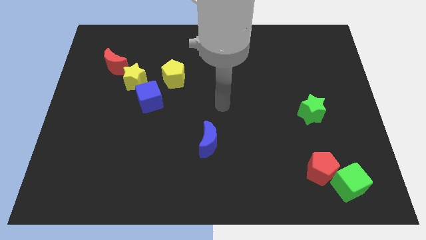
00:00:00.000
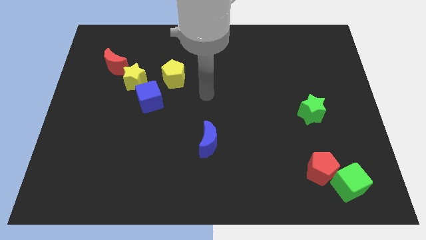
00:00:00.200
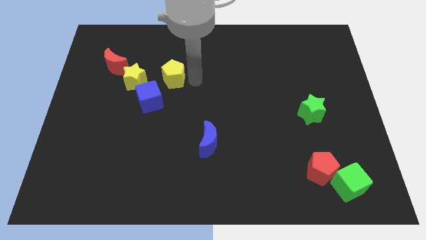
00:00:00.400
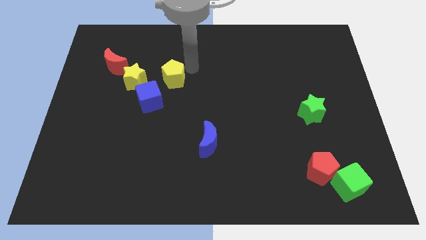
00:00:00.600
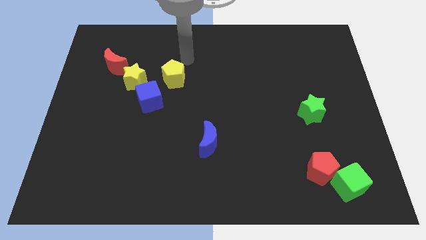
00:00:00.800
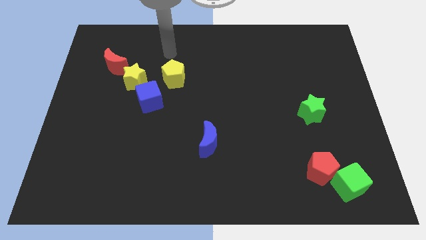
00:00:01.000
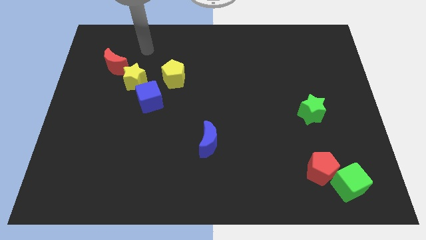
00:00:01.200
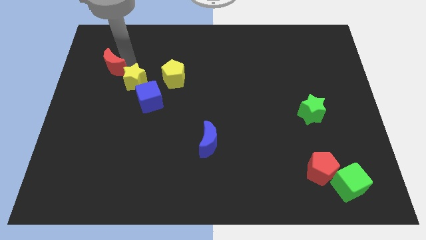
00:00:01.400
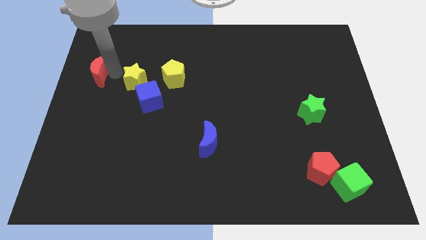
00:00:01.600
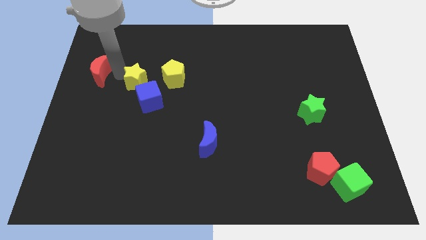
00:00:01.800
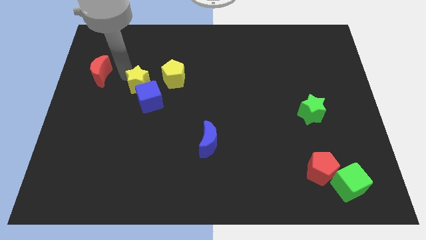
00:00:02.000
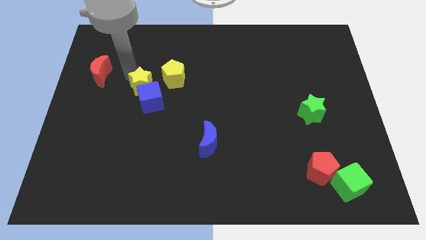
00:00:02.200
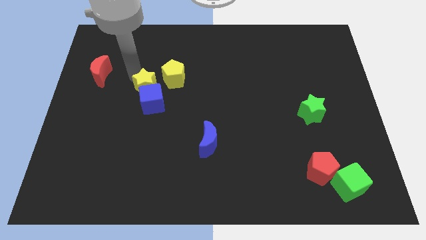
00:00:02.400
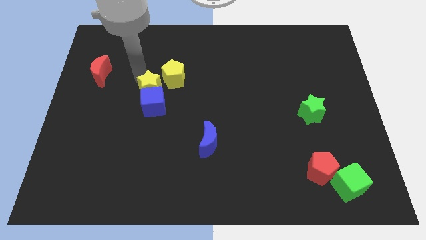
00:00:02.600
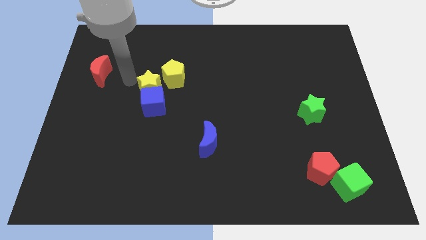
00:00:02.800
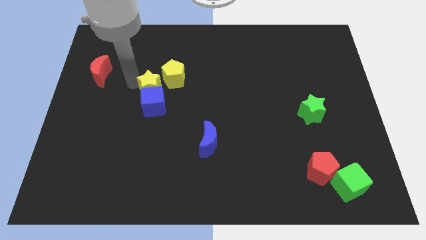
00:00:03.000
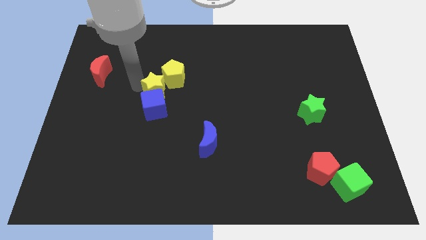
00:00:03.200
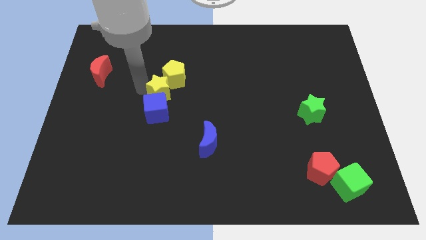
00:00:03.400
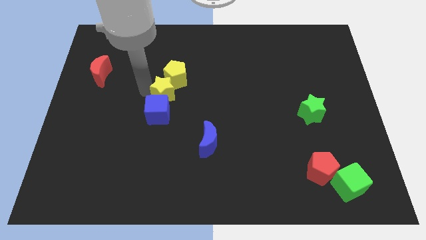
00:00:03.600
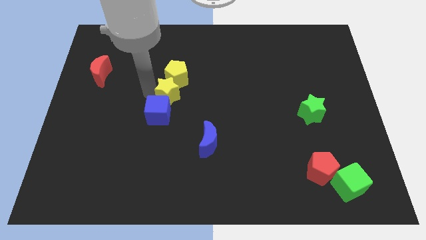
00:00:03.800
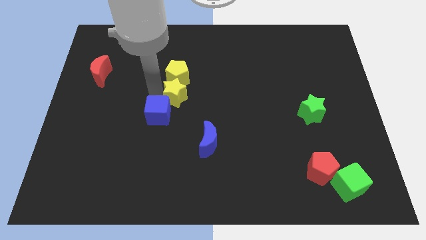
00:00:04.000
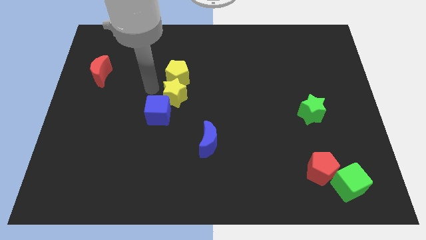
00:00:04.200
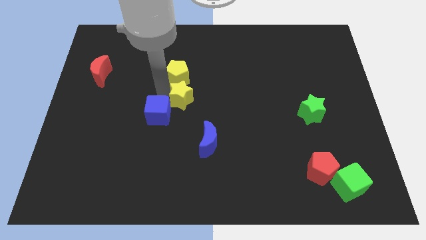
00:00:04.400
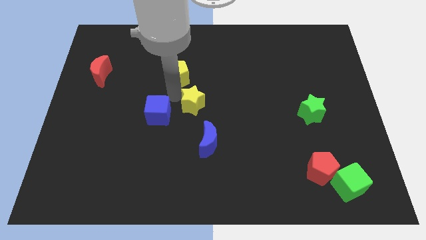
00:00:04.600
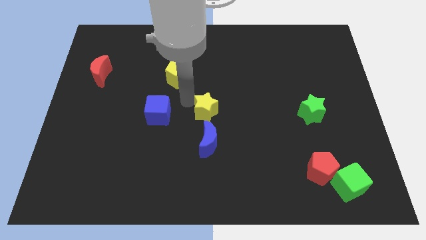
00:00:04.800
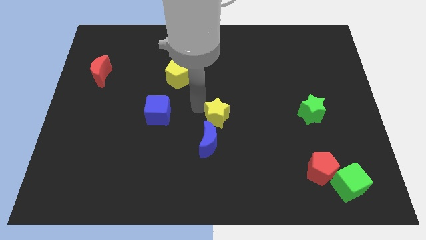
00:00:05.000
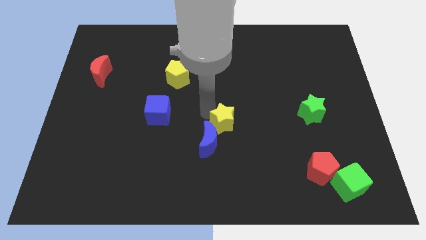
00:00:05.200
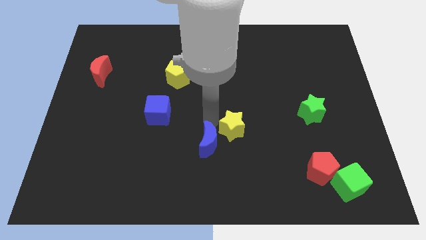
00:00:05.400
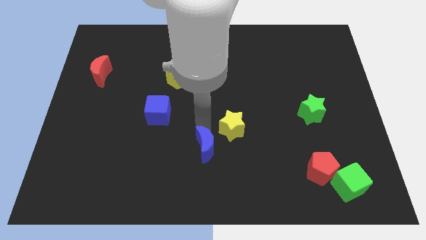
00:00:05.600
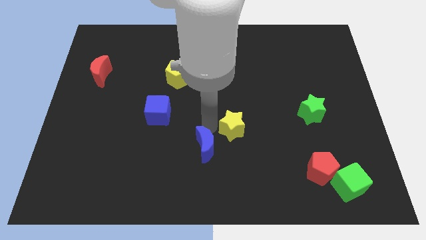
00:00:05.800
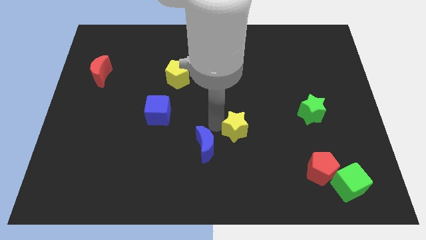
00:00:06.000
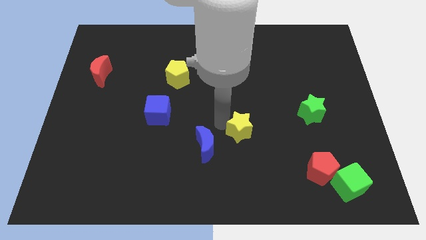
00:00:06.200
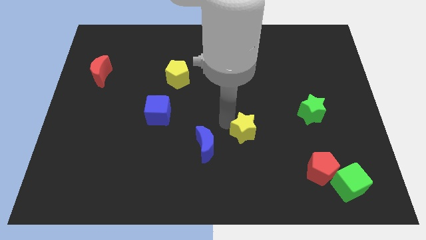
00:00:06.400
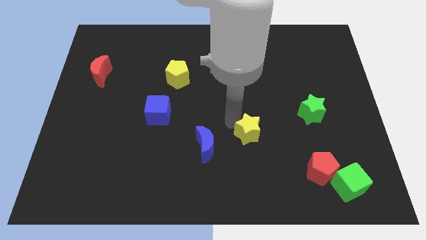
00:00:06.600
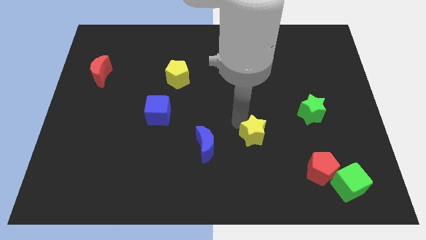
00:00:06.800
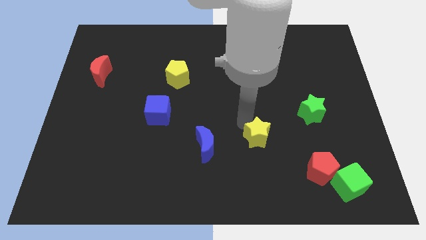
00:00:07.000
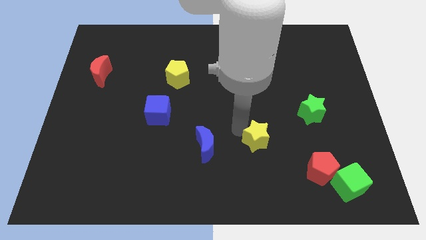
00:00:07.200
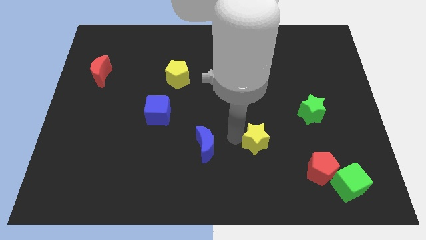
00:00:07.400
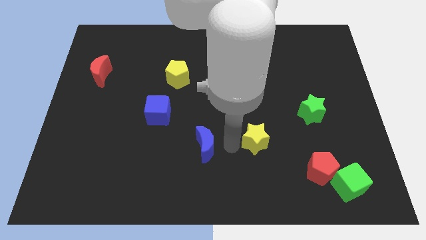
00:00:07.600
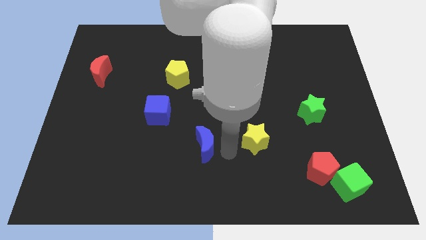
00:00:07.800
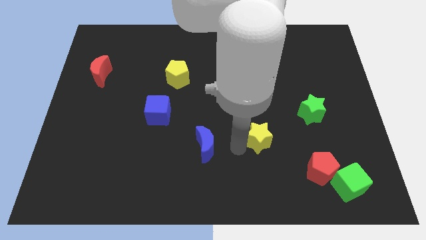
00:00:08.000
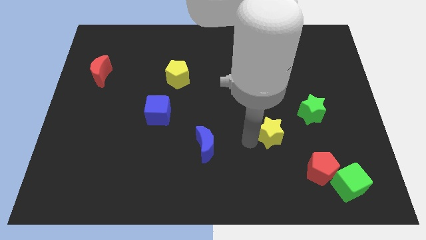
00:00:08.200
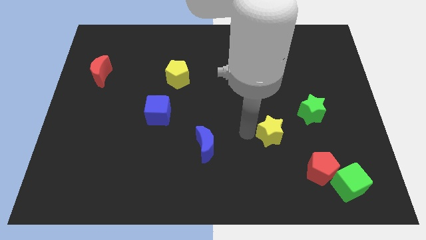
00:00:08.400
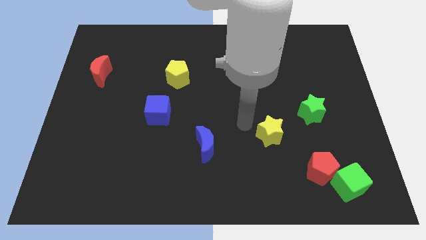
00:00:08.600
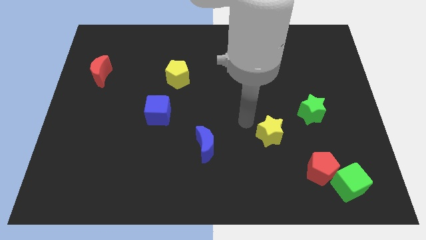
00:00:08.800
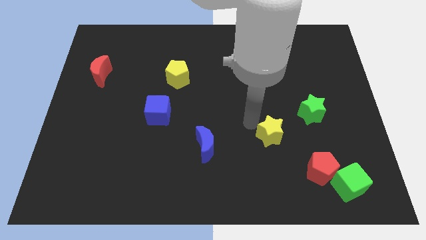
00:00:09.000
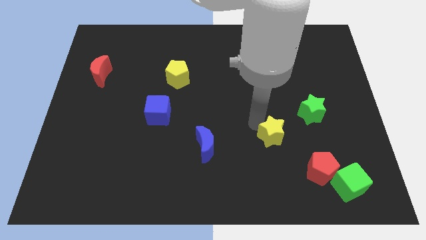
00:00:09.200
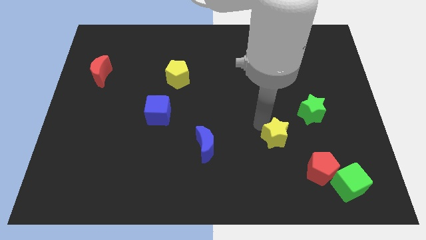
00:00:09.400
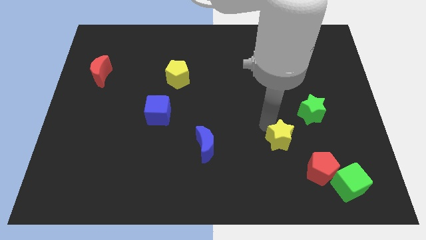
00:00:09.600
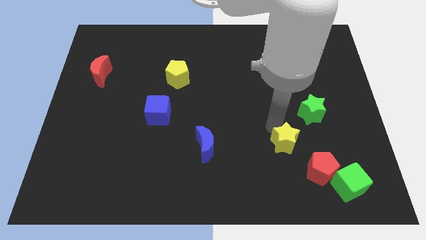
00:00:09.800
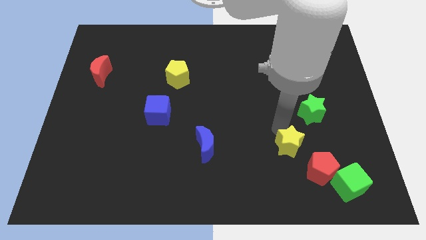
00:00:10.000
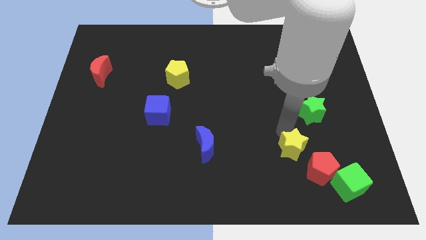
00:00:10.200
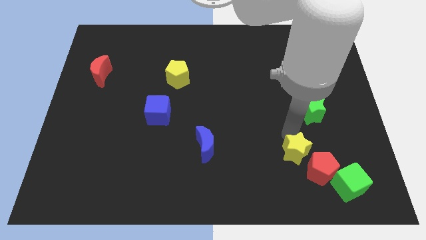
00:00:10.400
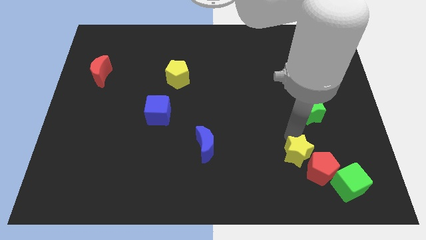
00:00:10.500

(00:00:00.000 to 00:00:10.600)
move the yellow star to the red pentagon

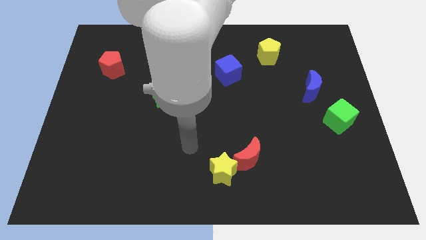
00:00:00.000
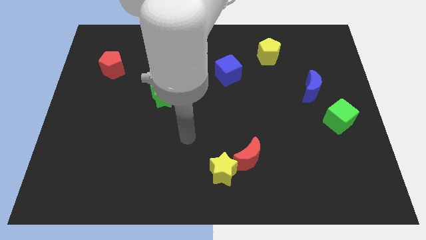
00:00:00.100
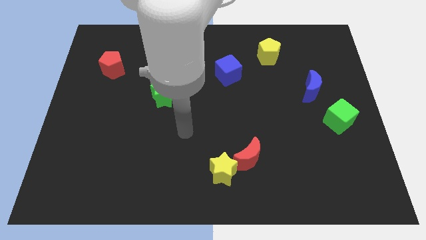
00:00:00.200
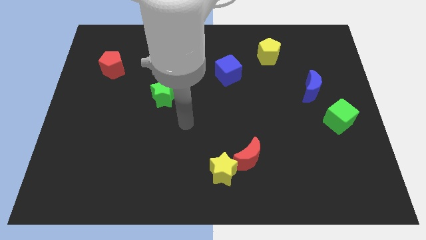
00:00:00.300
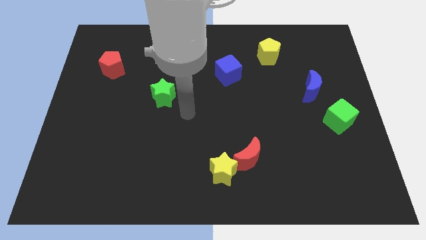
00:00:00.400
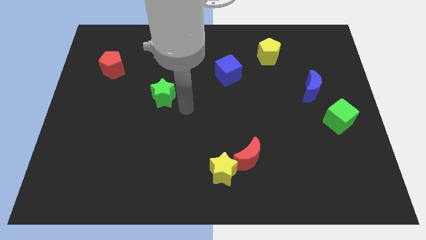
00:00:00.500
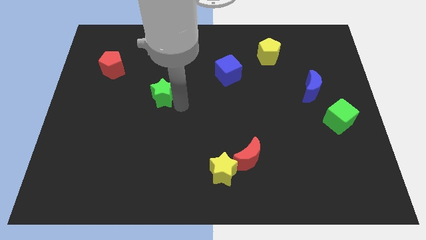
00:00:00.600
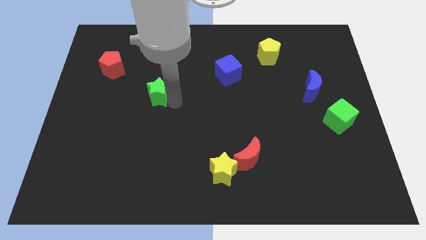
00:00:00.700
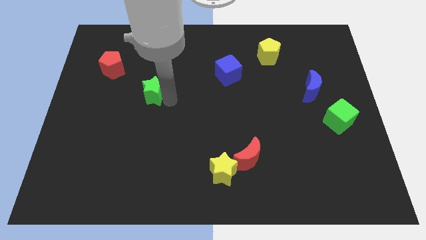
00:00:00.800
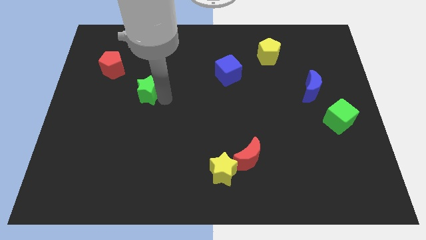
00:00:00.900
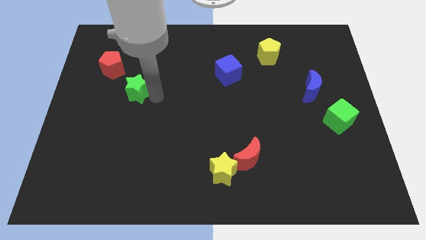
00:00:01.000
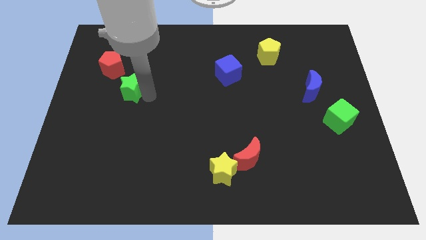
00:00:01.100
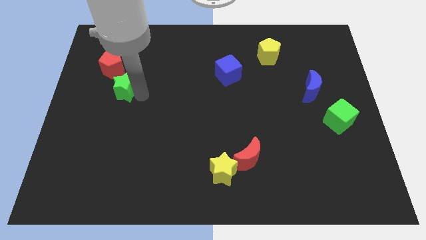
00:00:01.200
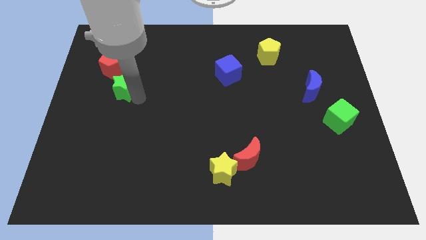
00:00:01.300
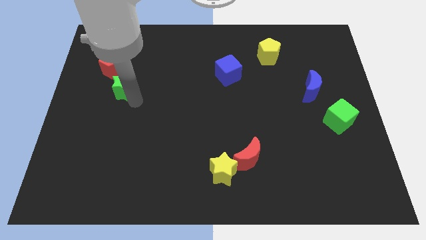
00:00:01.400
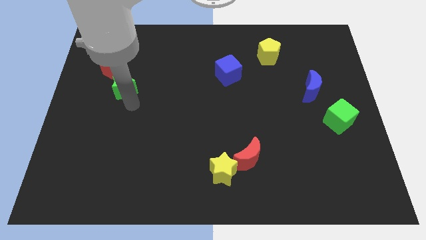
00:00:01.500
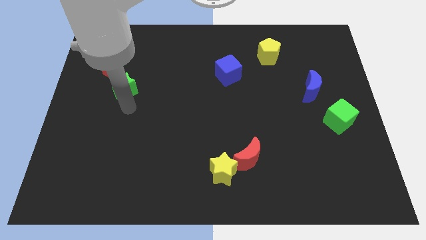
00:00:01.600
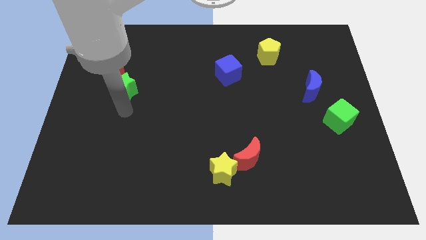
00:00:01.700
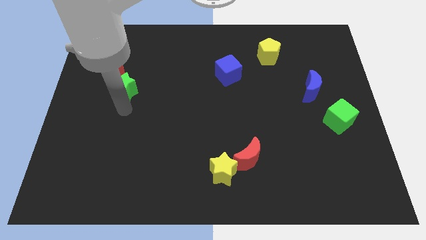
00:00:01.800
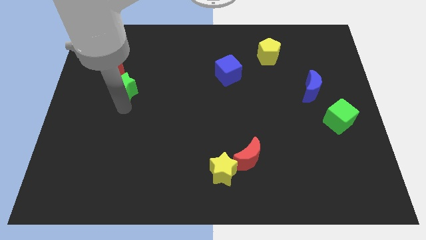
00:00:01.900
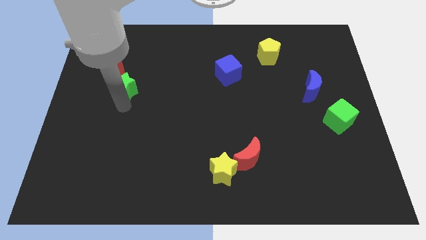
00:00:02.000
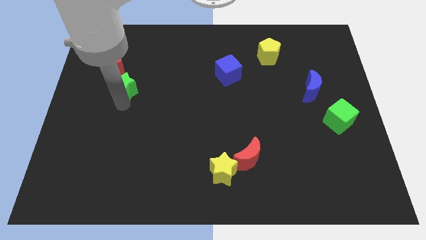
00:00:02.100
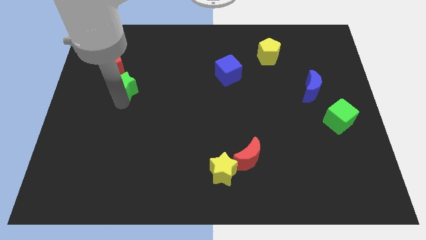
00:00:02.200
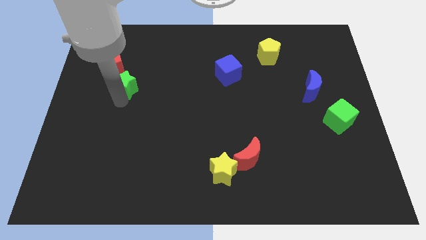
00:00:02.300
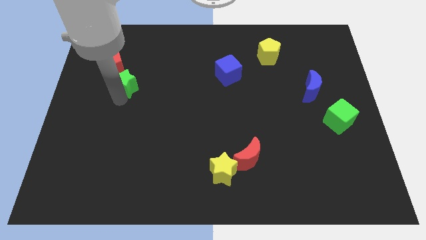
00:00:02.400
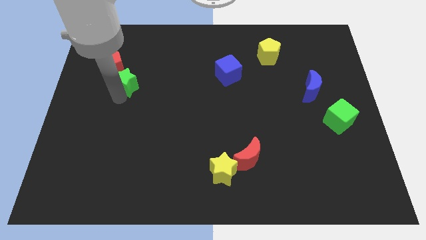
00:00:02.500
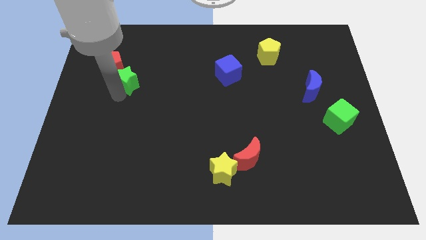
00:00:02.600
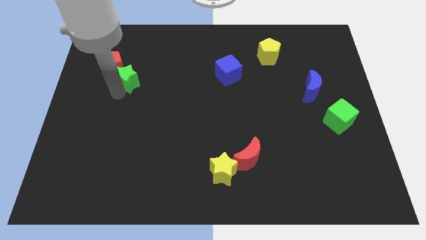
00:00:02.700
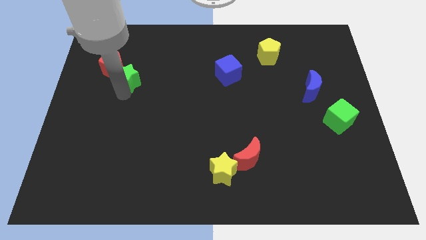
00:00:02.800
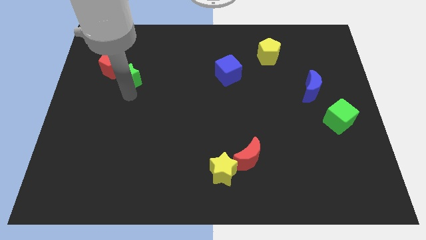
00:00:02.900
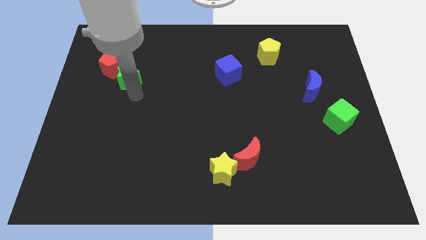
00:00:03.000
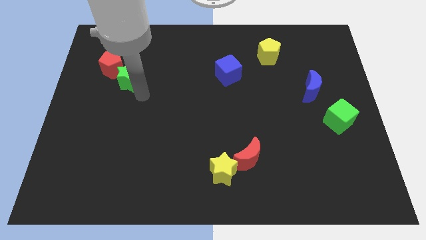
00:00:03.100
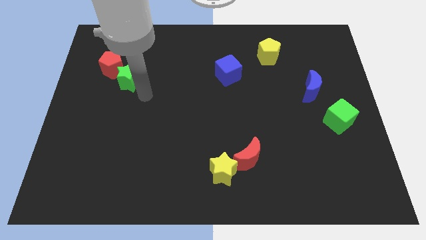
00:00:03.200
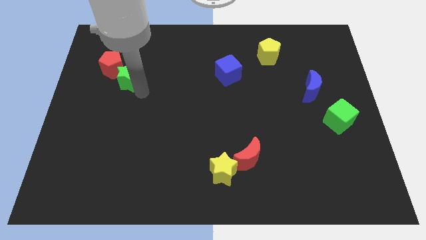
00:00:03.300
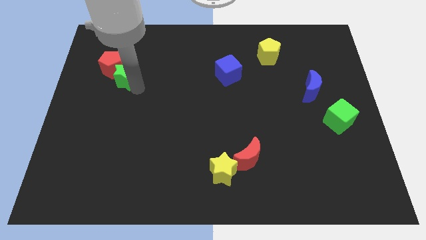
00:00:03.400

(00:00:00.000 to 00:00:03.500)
put the green star towards the red pentagon
